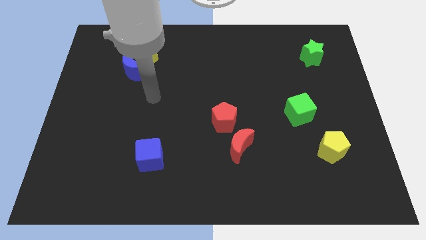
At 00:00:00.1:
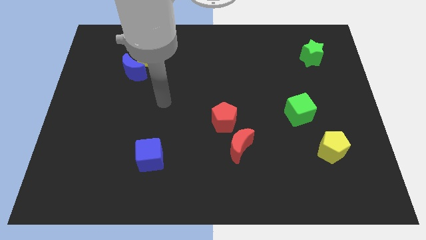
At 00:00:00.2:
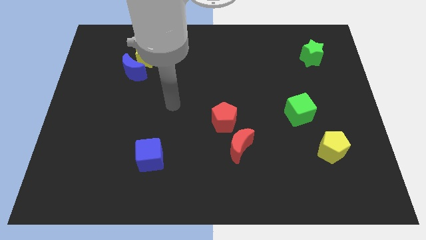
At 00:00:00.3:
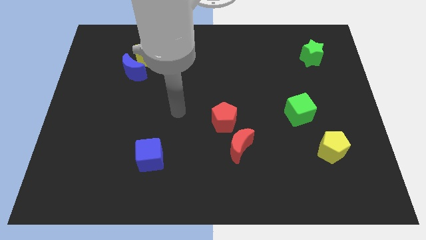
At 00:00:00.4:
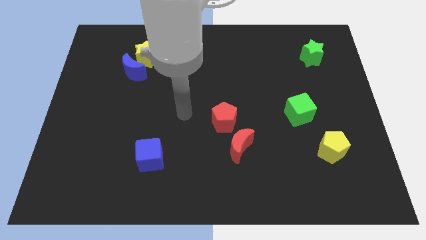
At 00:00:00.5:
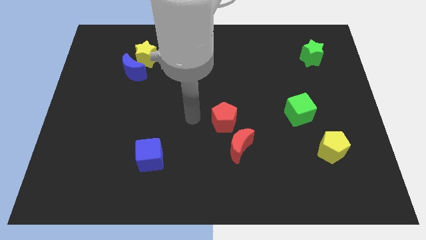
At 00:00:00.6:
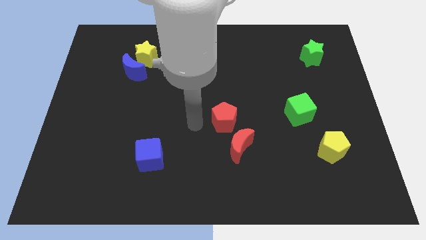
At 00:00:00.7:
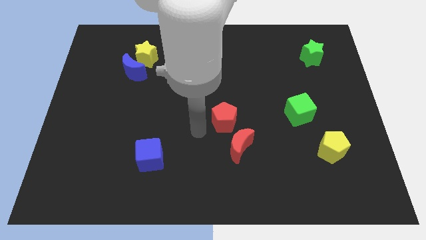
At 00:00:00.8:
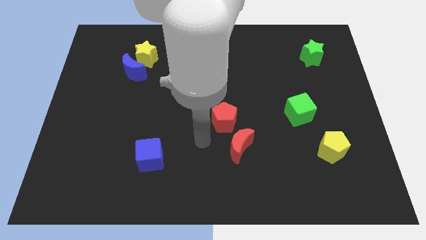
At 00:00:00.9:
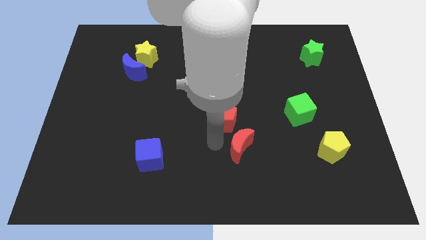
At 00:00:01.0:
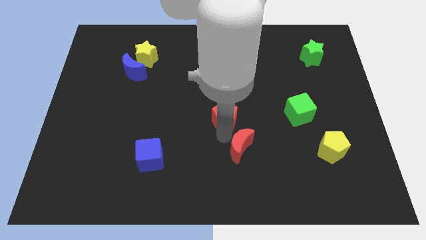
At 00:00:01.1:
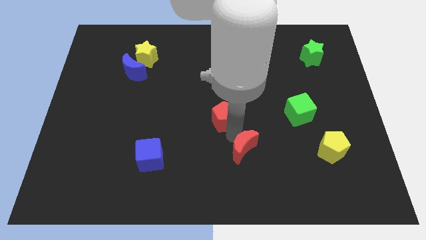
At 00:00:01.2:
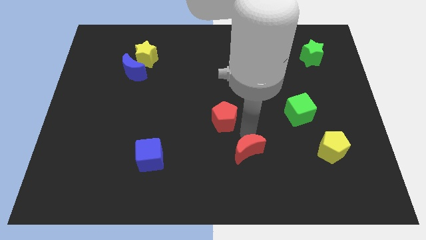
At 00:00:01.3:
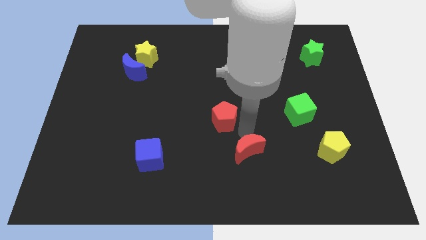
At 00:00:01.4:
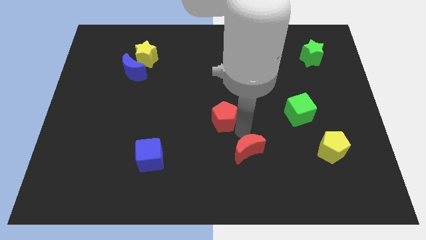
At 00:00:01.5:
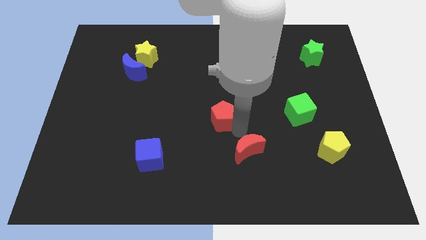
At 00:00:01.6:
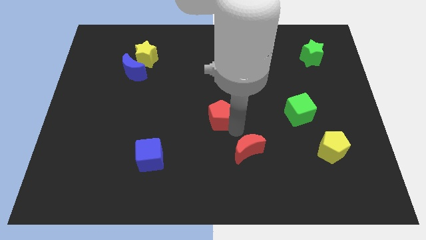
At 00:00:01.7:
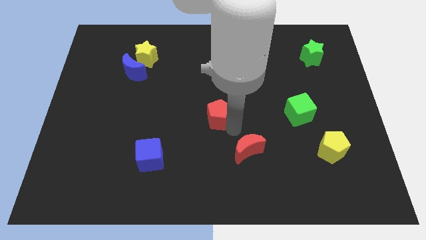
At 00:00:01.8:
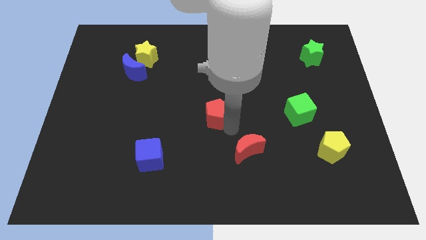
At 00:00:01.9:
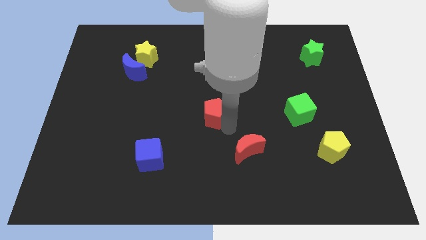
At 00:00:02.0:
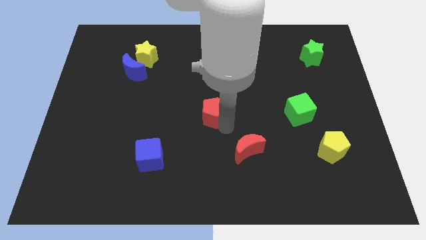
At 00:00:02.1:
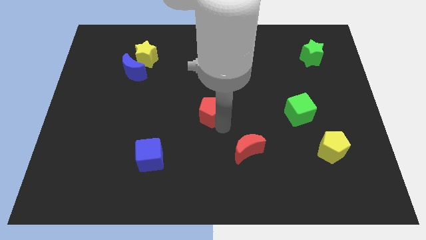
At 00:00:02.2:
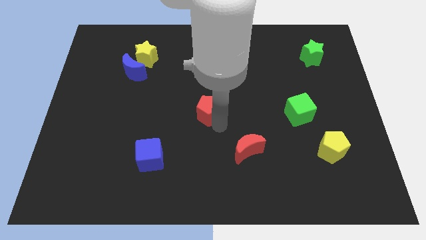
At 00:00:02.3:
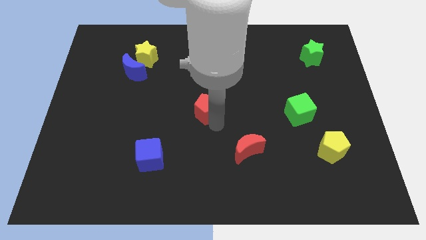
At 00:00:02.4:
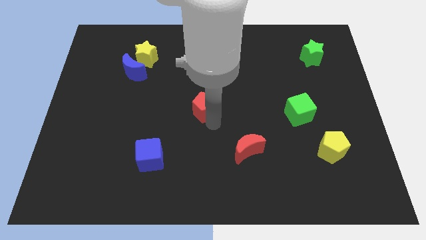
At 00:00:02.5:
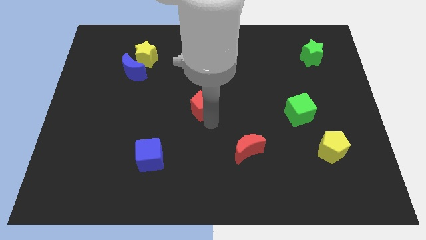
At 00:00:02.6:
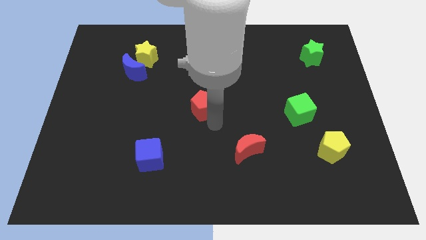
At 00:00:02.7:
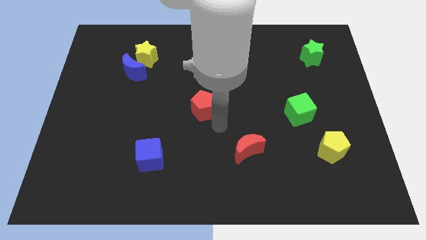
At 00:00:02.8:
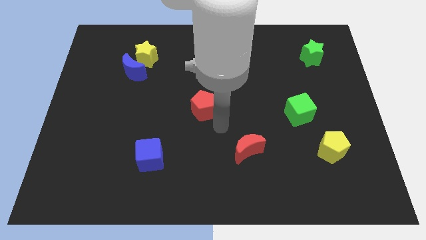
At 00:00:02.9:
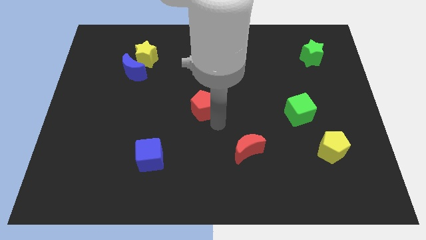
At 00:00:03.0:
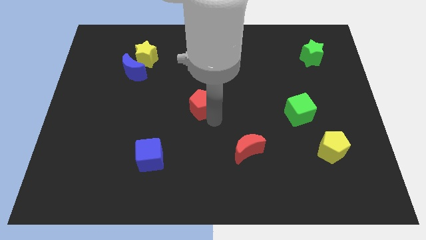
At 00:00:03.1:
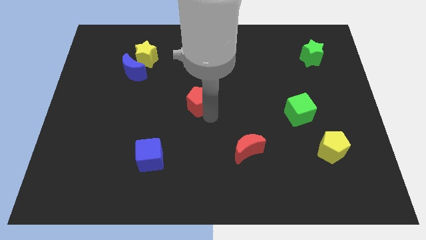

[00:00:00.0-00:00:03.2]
slightly push the red pentagon diagonally upwards and to the left

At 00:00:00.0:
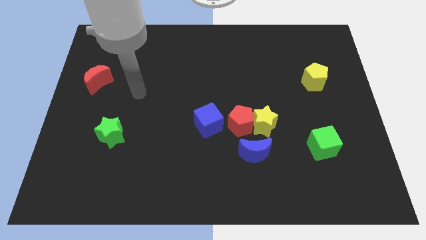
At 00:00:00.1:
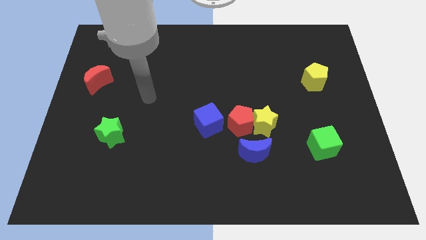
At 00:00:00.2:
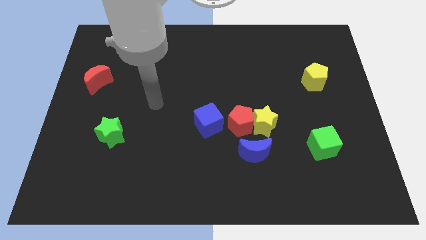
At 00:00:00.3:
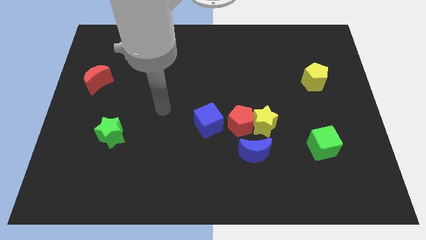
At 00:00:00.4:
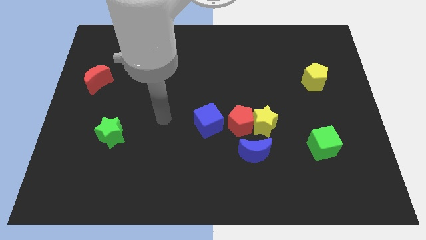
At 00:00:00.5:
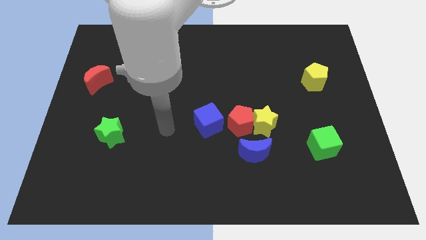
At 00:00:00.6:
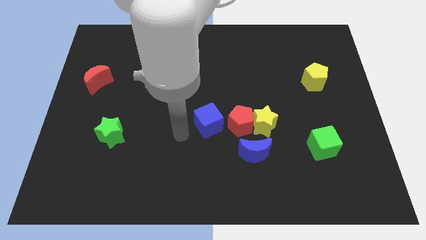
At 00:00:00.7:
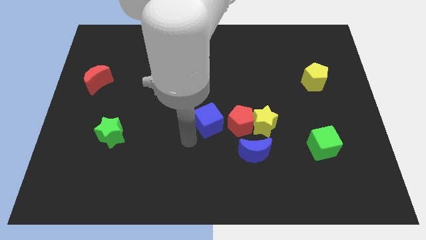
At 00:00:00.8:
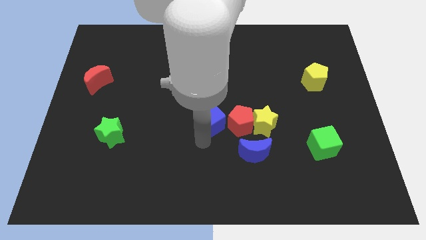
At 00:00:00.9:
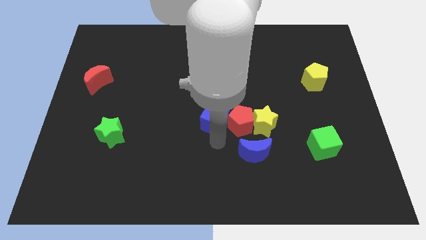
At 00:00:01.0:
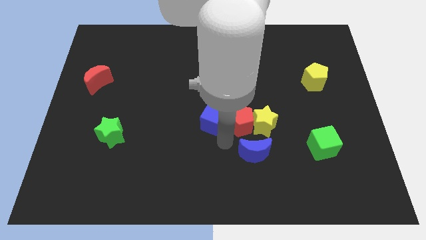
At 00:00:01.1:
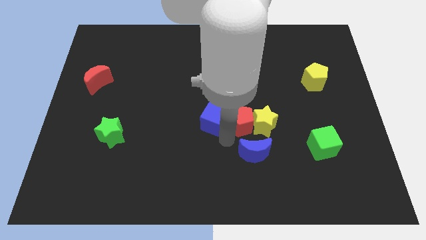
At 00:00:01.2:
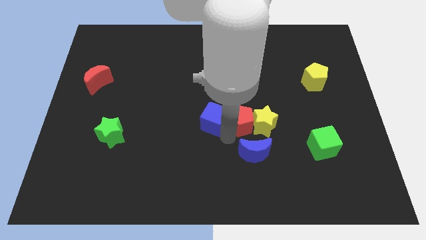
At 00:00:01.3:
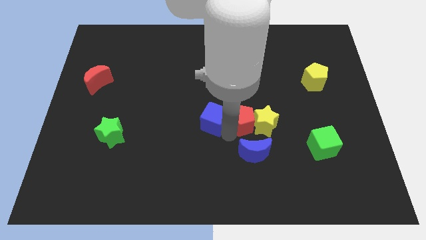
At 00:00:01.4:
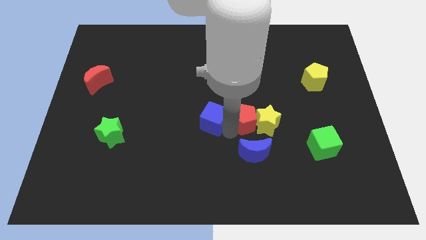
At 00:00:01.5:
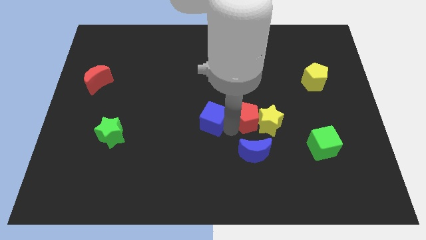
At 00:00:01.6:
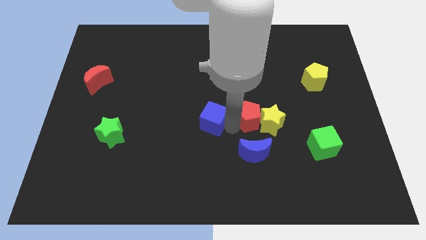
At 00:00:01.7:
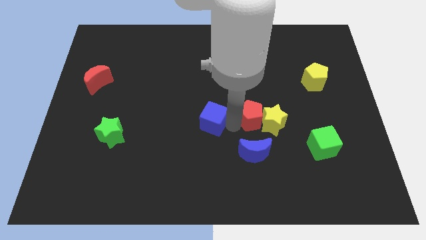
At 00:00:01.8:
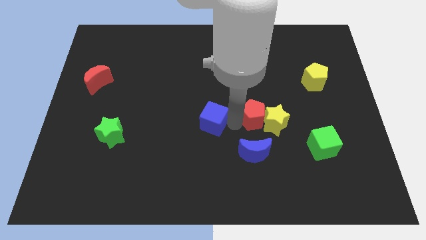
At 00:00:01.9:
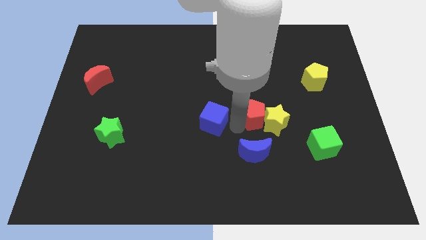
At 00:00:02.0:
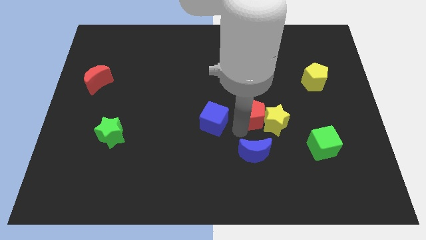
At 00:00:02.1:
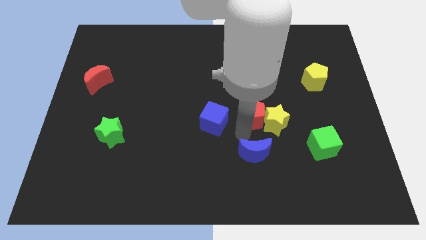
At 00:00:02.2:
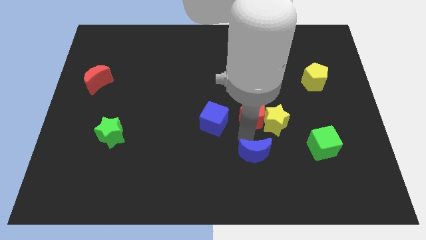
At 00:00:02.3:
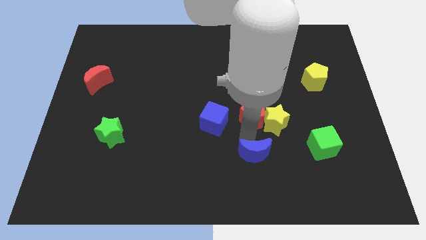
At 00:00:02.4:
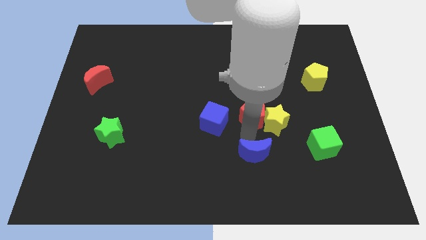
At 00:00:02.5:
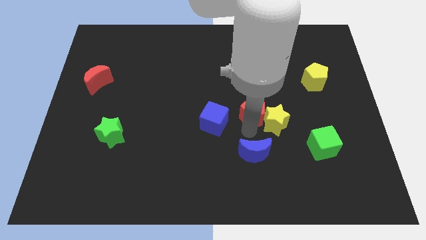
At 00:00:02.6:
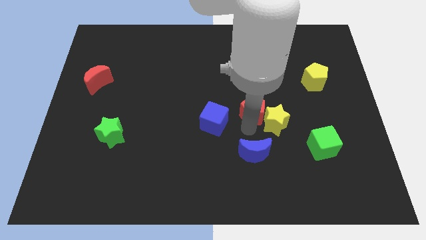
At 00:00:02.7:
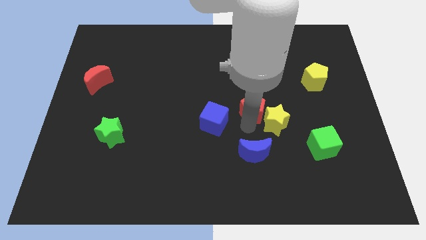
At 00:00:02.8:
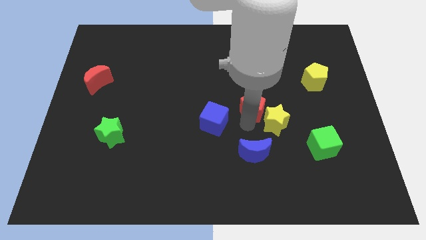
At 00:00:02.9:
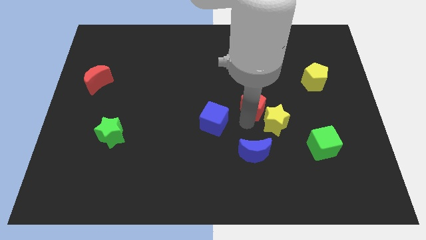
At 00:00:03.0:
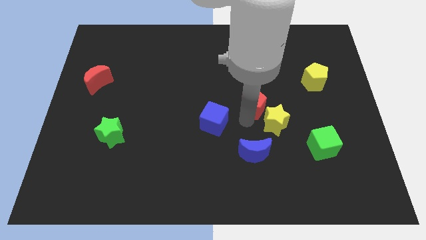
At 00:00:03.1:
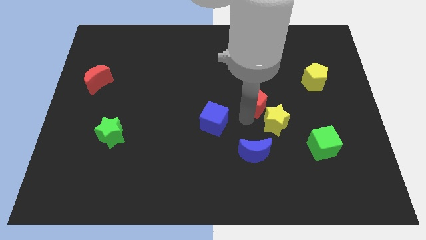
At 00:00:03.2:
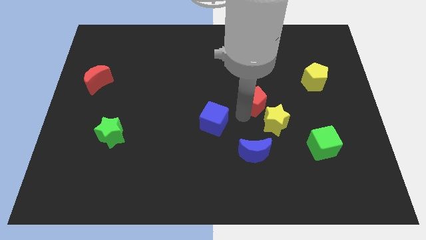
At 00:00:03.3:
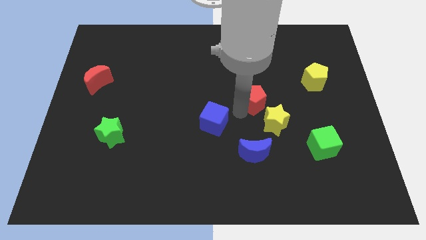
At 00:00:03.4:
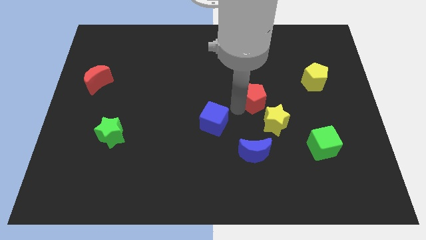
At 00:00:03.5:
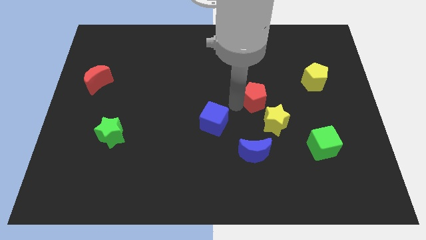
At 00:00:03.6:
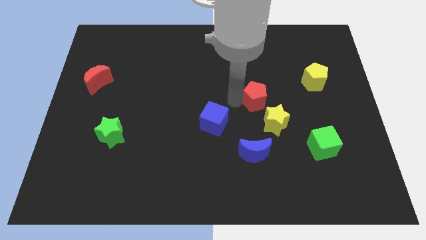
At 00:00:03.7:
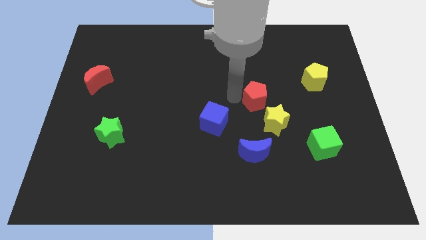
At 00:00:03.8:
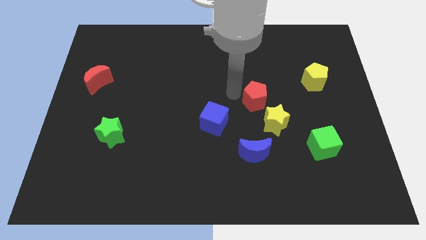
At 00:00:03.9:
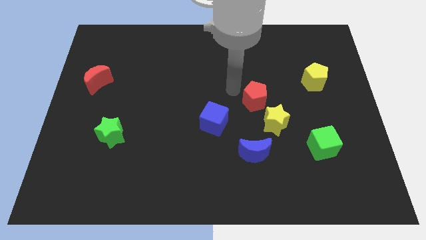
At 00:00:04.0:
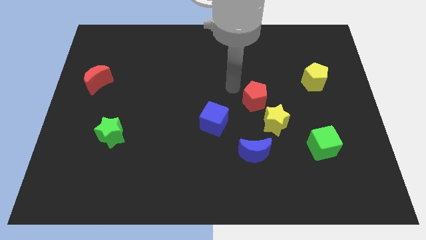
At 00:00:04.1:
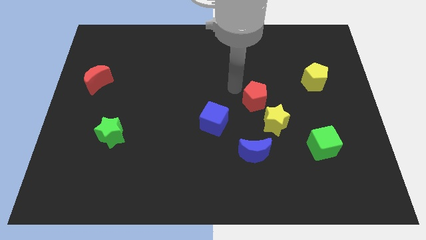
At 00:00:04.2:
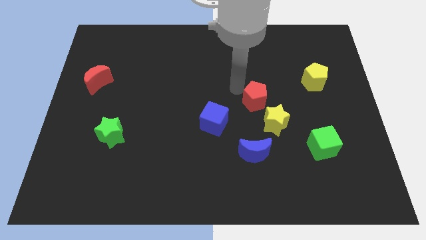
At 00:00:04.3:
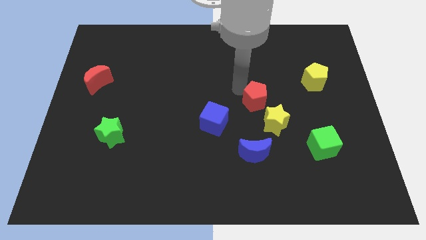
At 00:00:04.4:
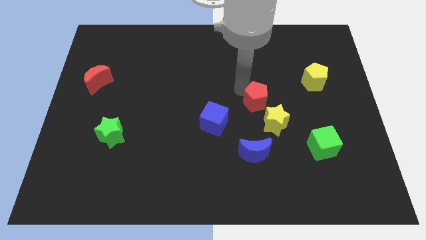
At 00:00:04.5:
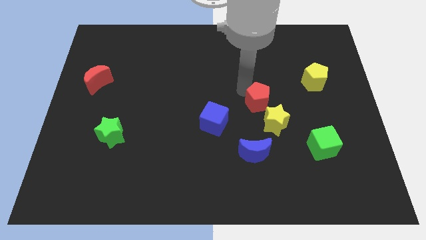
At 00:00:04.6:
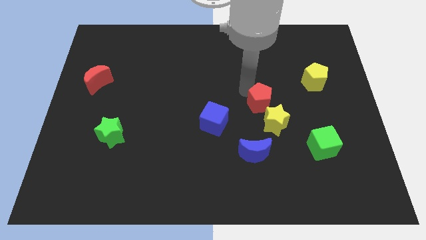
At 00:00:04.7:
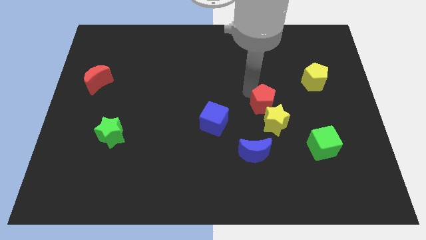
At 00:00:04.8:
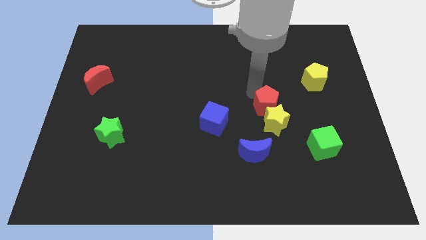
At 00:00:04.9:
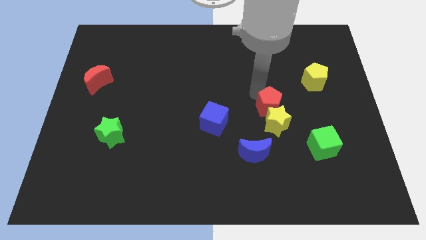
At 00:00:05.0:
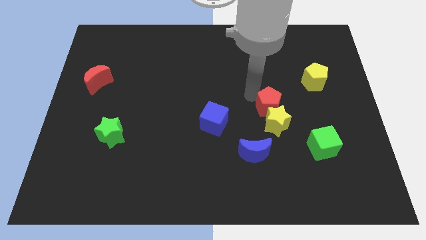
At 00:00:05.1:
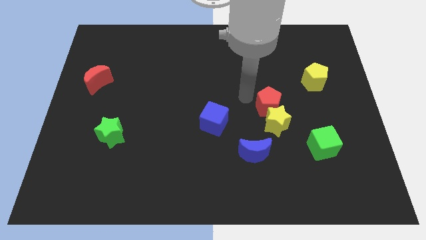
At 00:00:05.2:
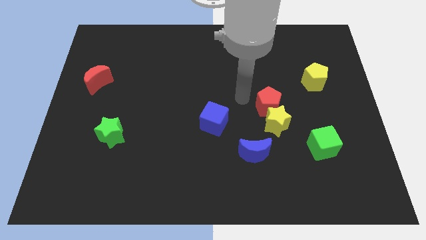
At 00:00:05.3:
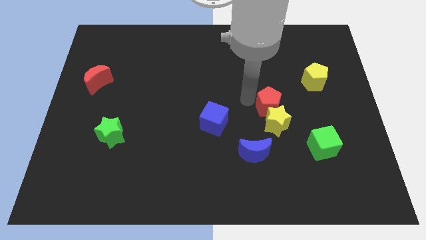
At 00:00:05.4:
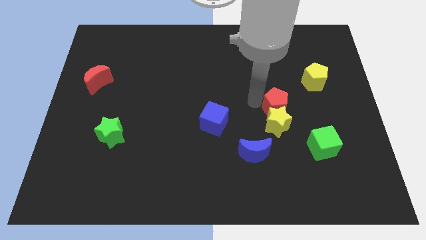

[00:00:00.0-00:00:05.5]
slightly move the red pentagon right
